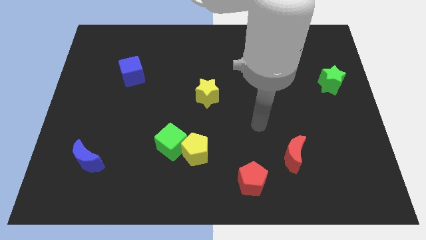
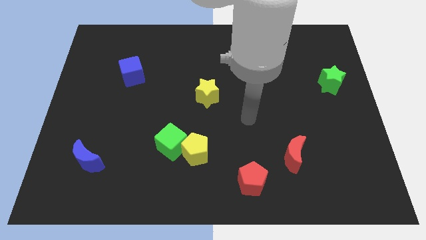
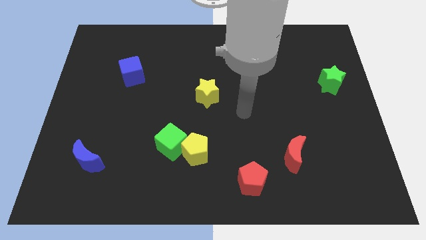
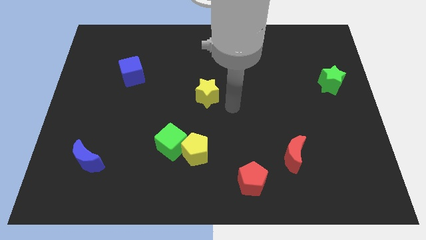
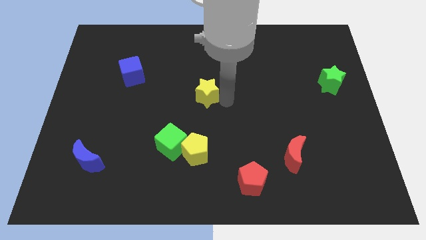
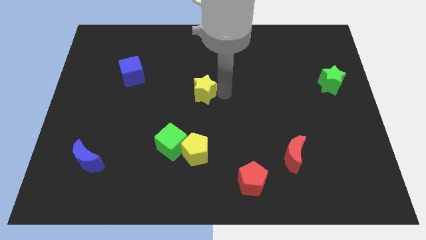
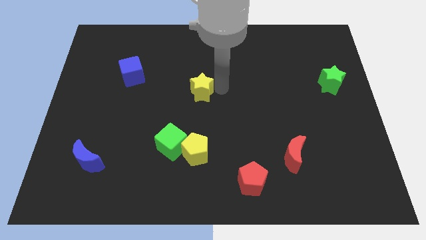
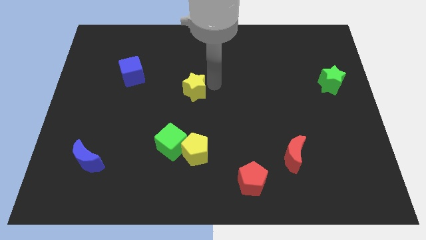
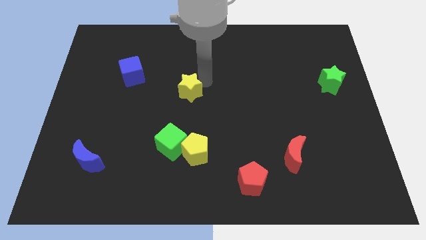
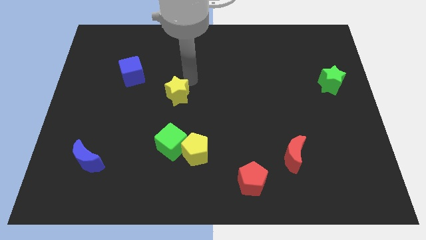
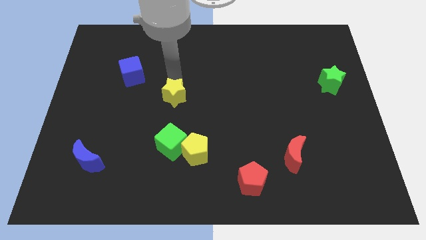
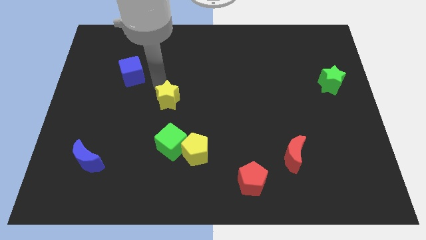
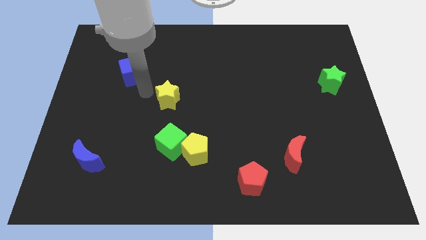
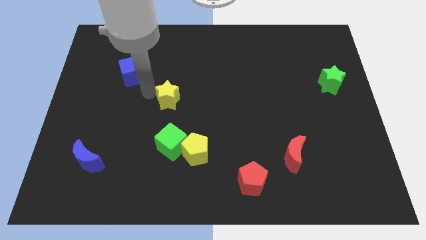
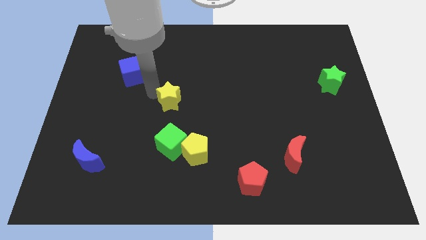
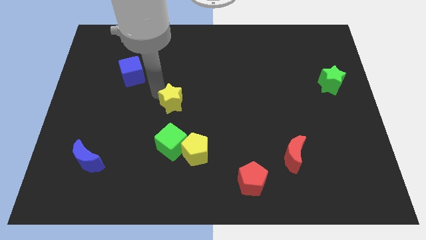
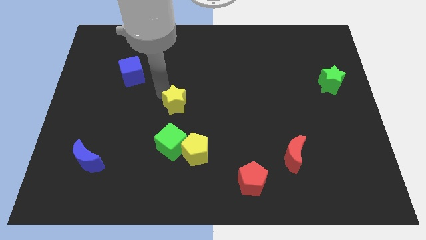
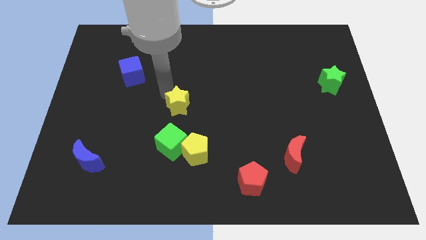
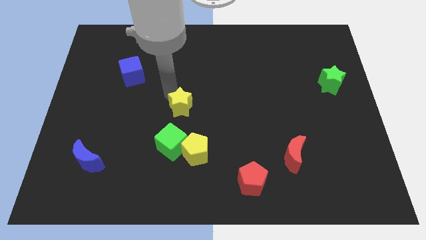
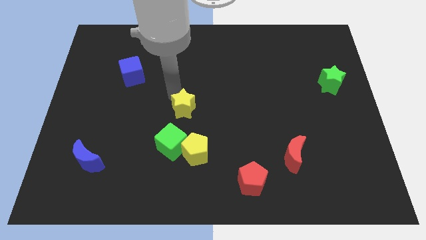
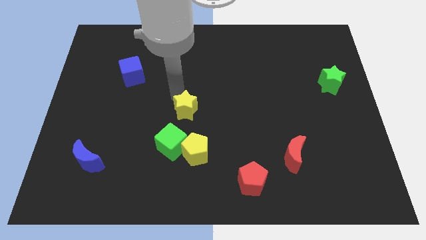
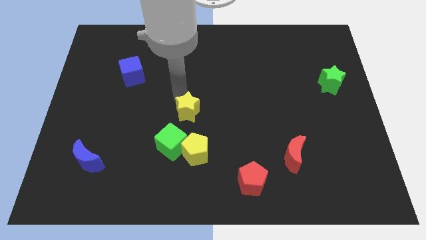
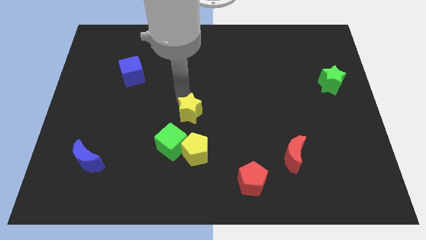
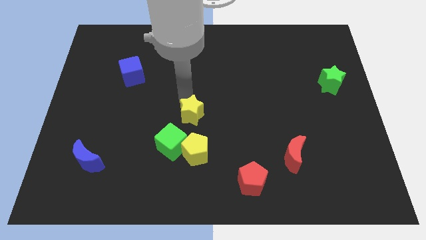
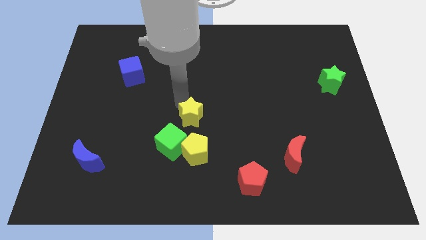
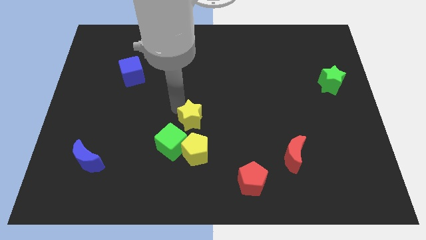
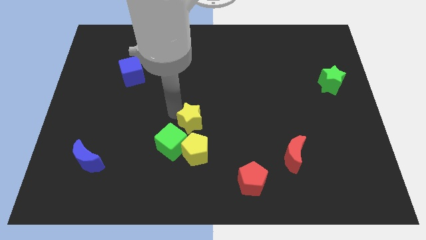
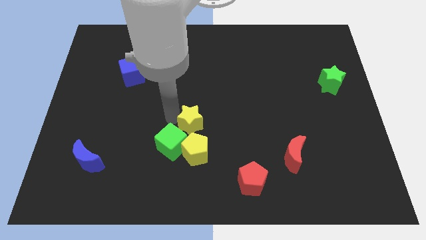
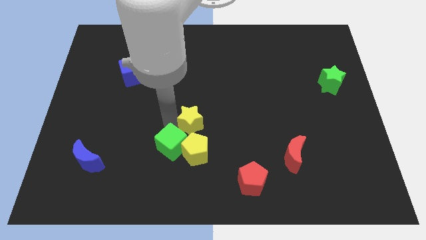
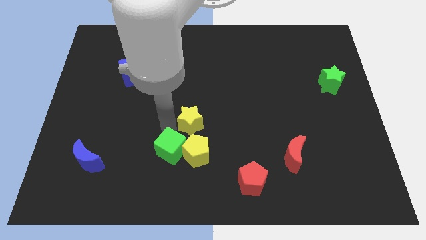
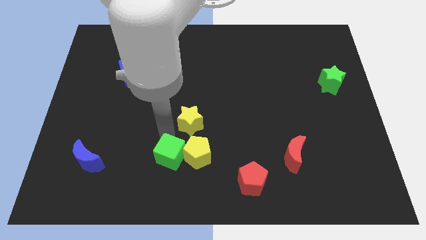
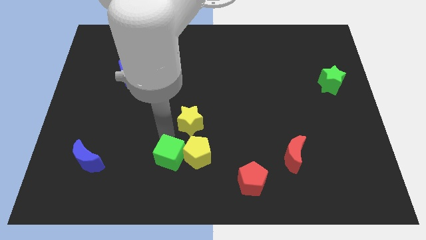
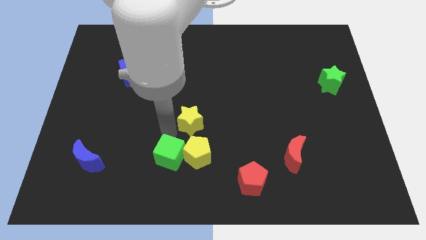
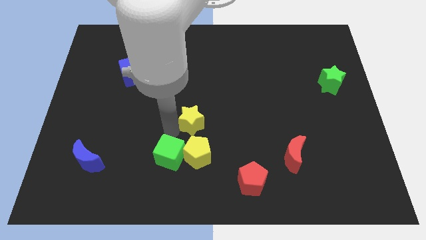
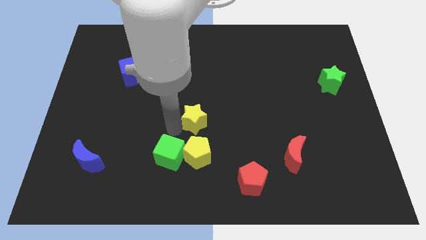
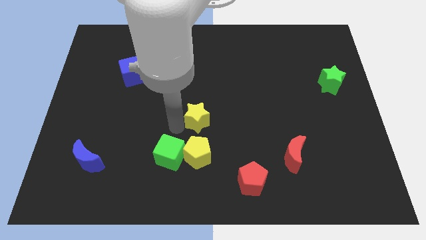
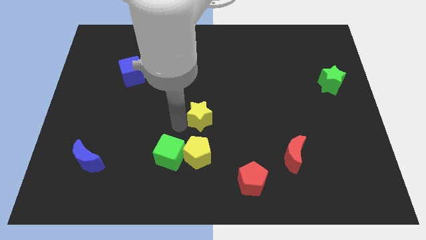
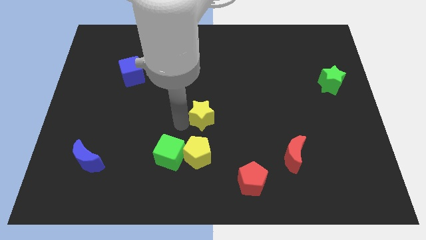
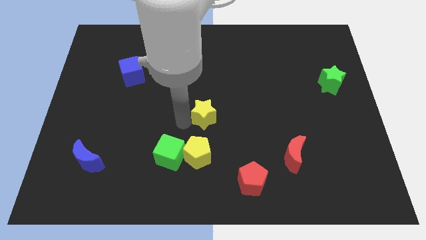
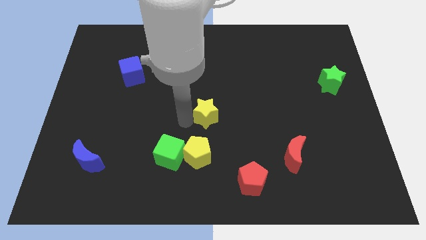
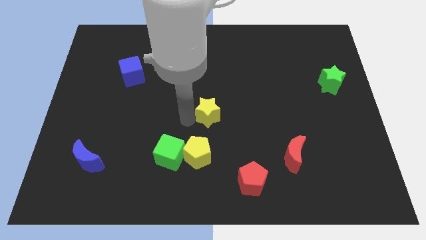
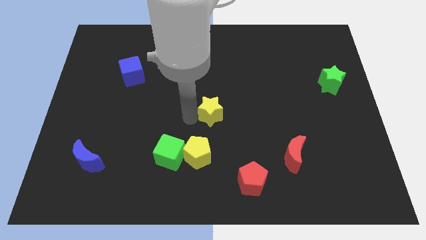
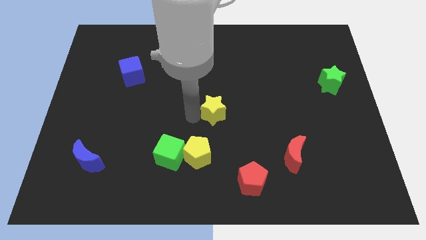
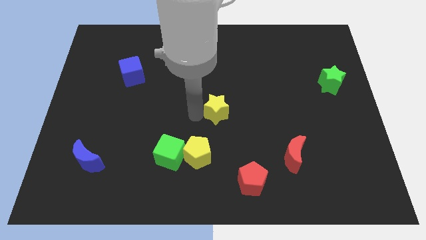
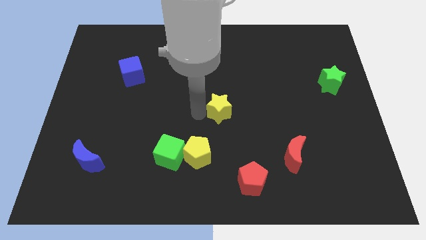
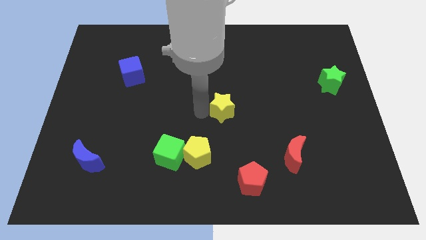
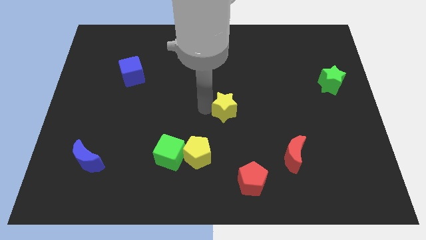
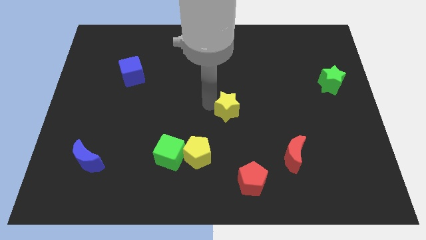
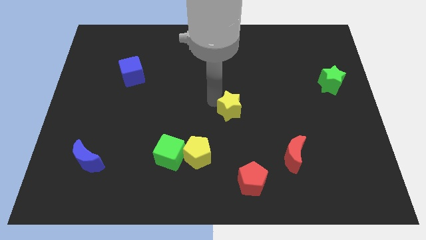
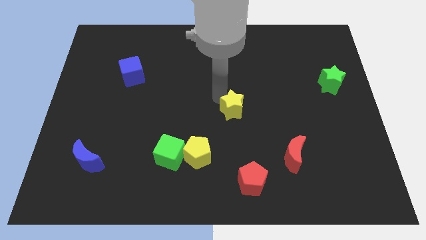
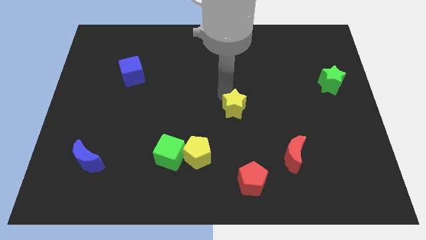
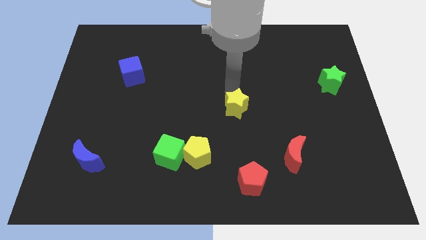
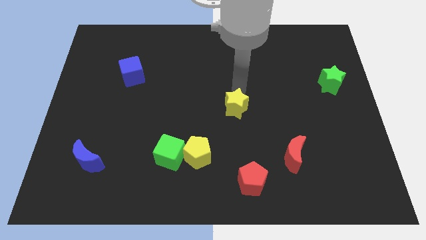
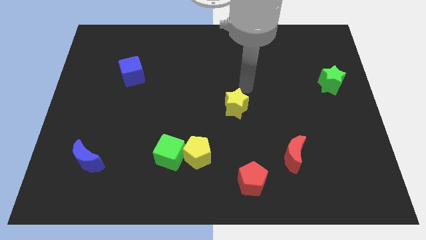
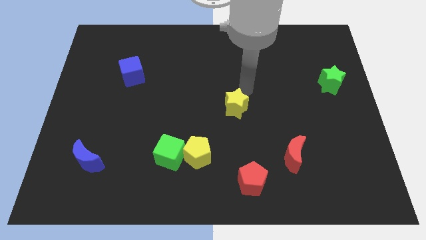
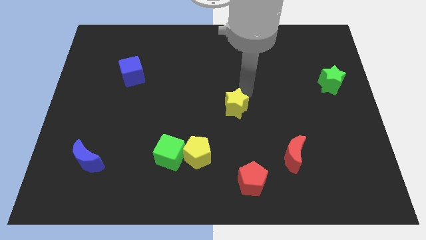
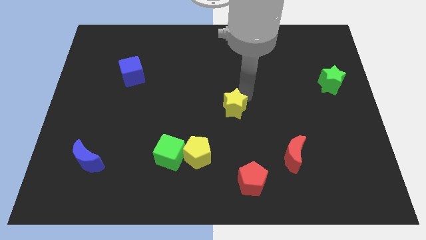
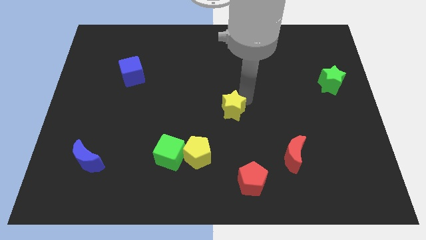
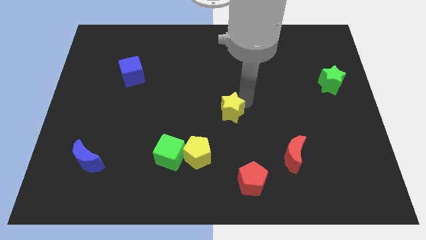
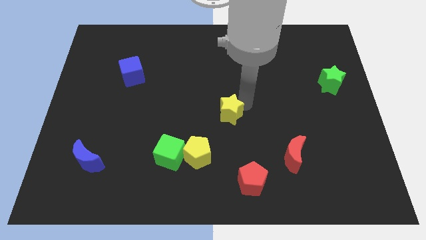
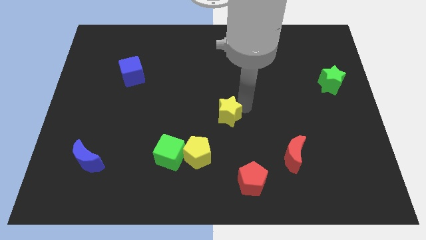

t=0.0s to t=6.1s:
put the yellow star to the top right of the yellow pentagon

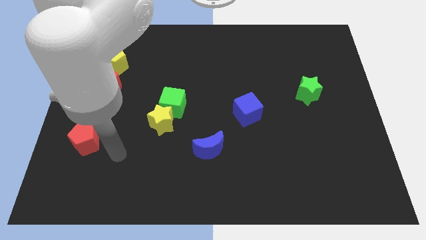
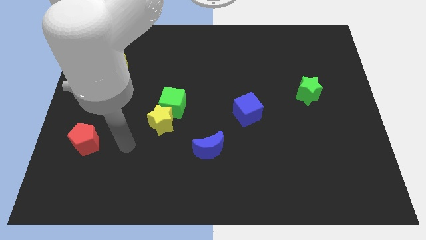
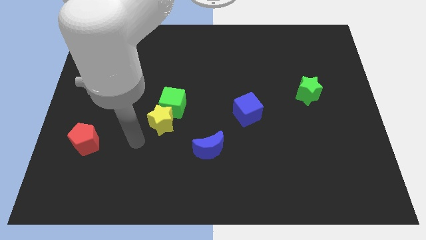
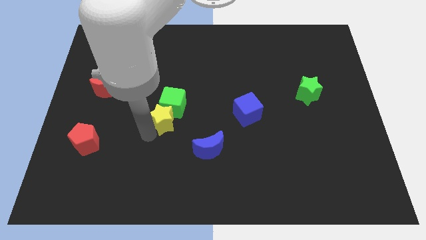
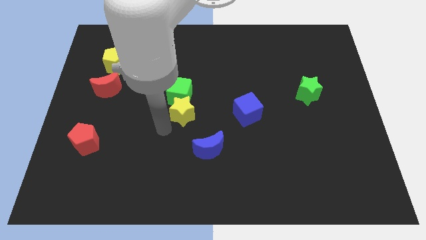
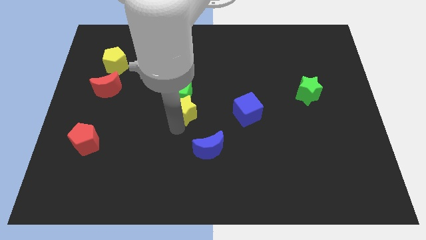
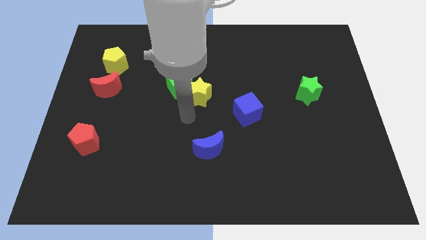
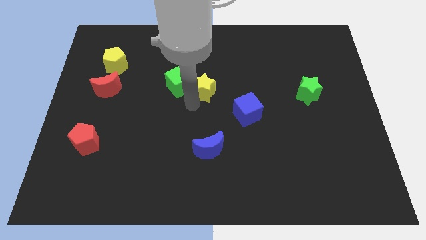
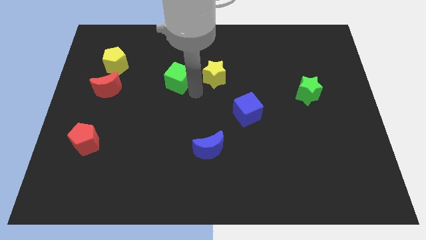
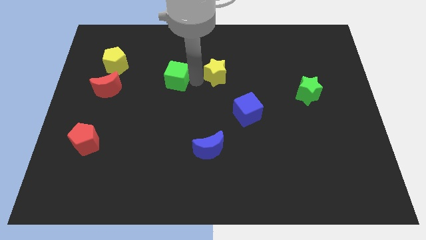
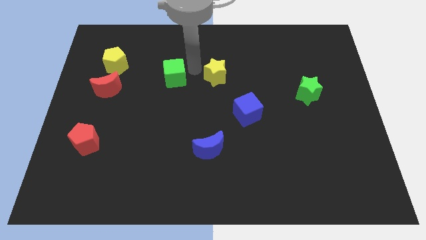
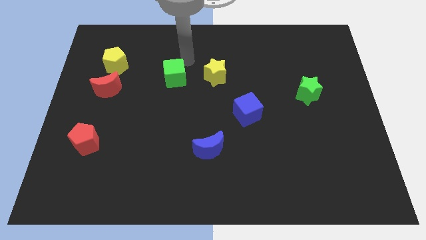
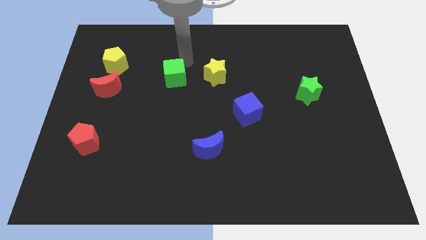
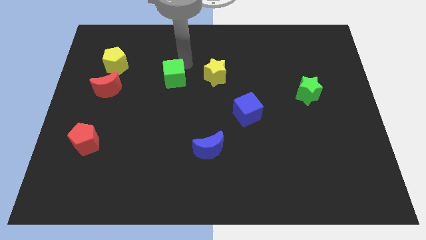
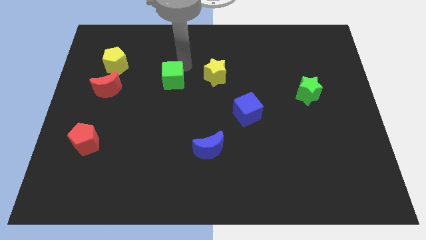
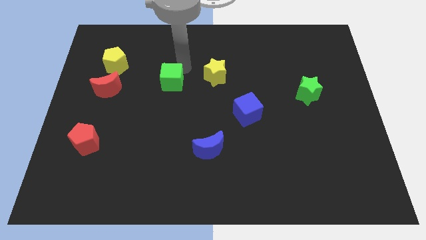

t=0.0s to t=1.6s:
slide the green cube just right of the red moon
